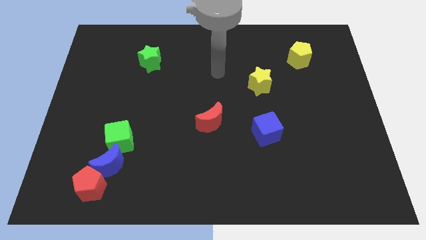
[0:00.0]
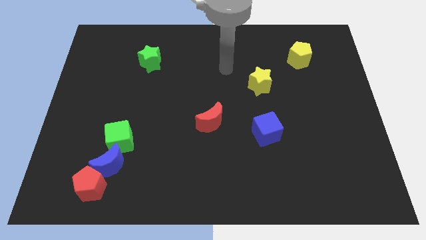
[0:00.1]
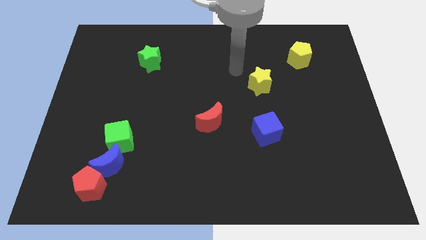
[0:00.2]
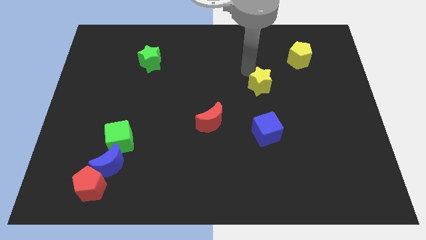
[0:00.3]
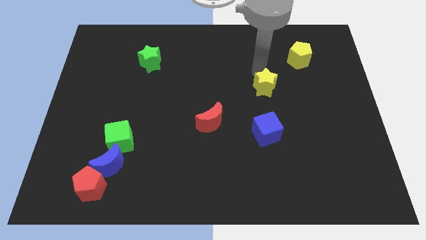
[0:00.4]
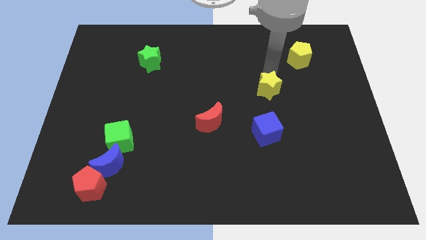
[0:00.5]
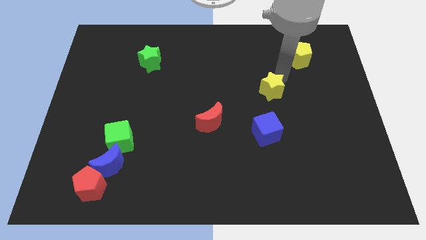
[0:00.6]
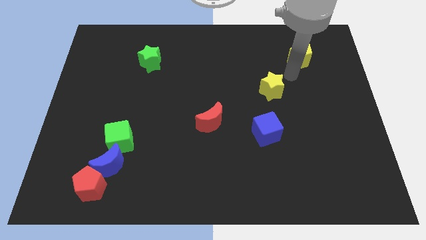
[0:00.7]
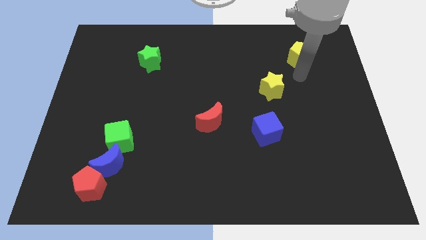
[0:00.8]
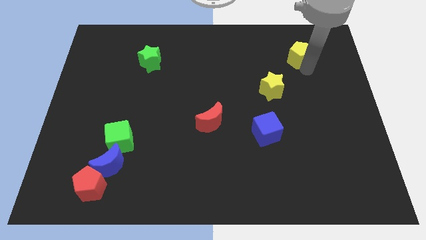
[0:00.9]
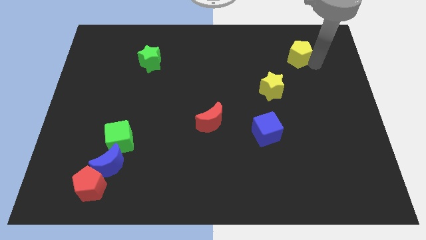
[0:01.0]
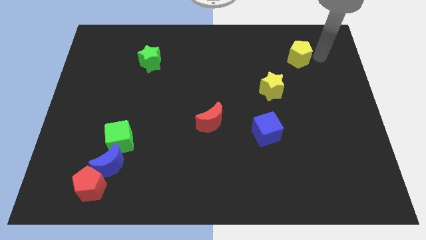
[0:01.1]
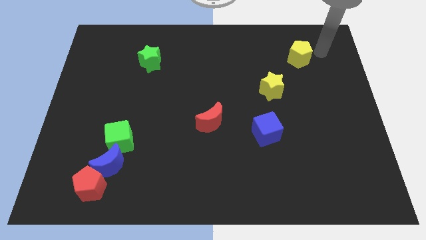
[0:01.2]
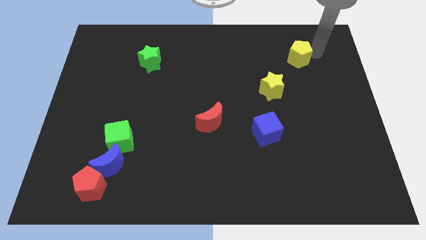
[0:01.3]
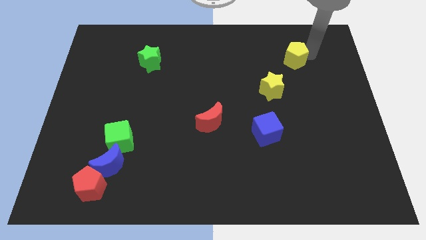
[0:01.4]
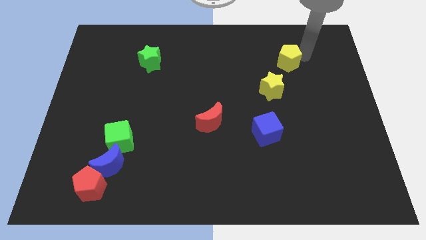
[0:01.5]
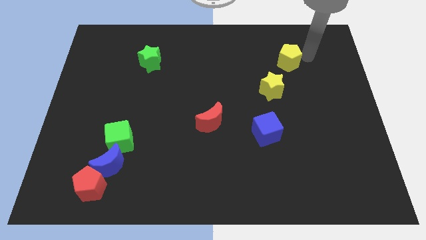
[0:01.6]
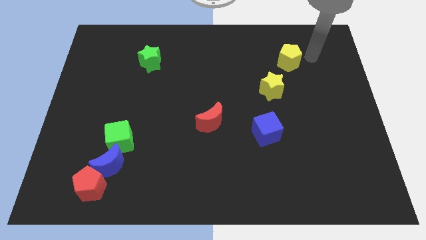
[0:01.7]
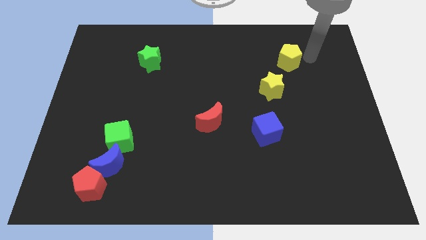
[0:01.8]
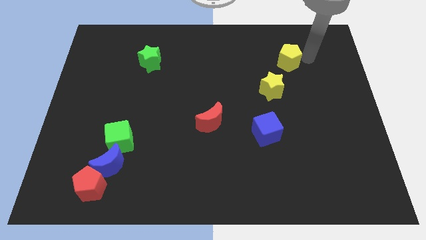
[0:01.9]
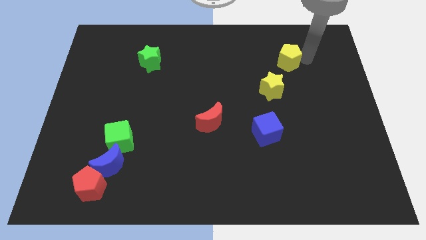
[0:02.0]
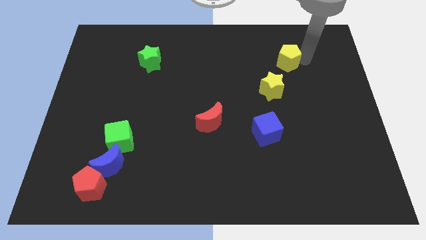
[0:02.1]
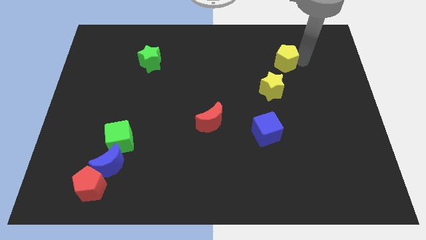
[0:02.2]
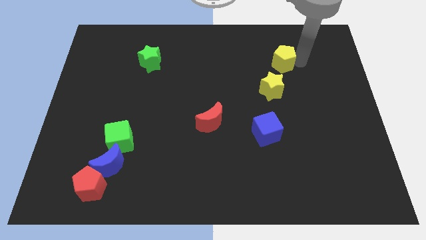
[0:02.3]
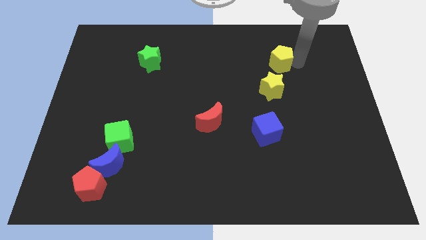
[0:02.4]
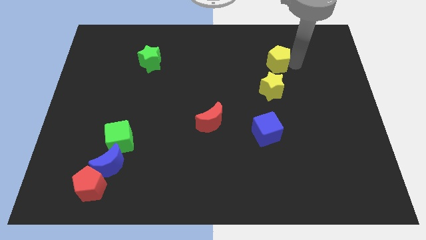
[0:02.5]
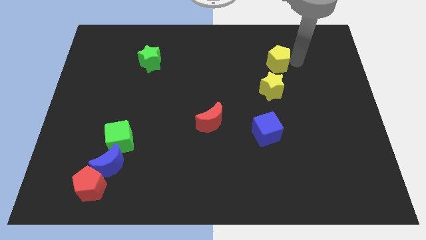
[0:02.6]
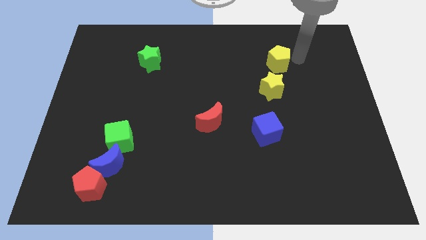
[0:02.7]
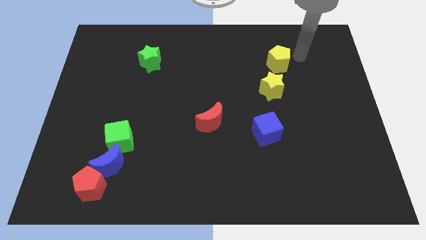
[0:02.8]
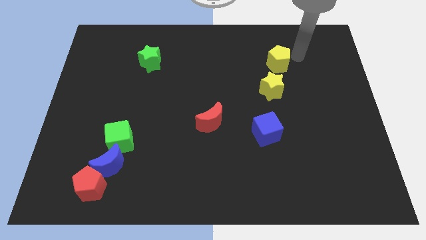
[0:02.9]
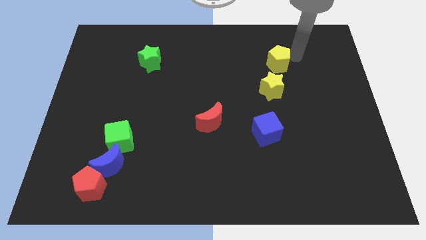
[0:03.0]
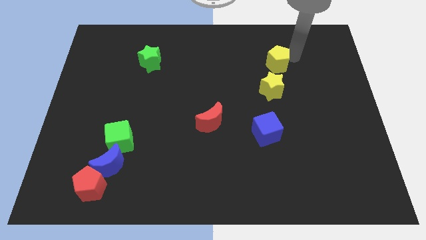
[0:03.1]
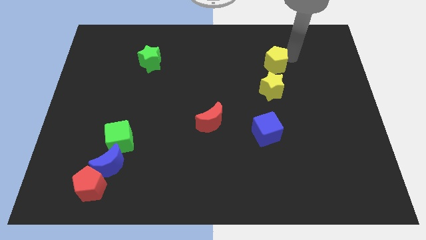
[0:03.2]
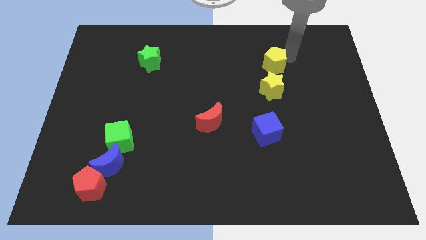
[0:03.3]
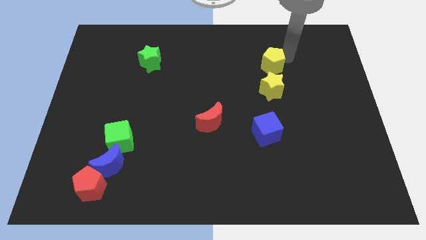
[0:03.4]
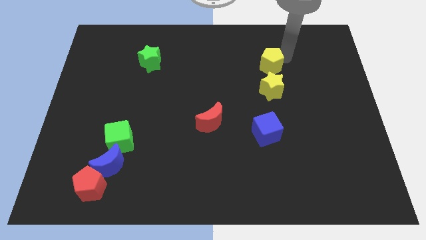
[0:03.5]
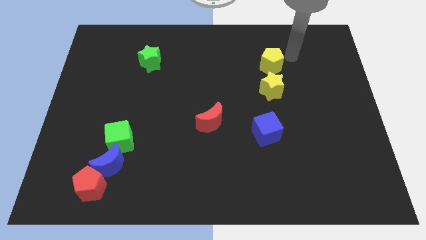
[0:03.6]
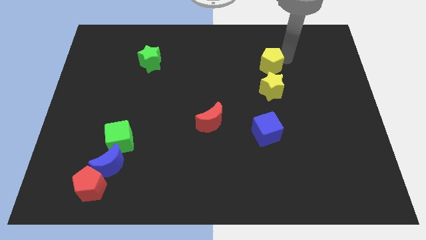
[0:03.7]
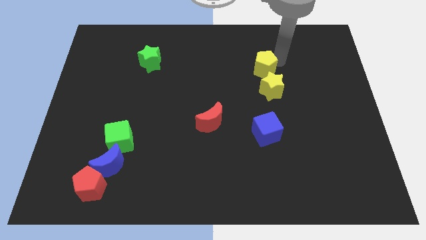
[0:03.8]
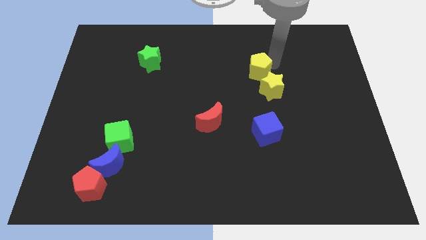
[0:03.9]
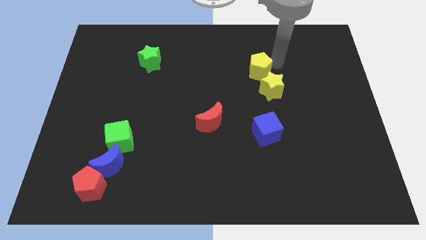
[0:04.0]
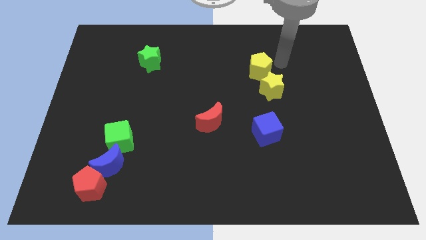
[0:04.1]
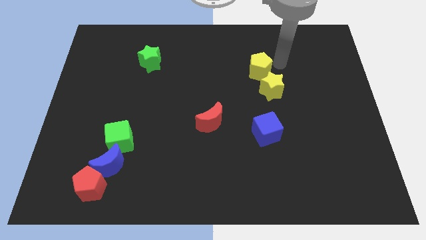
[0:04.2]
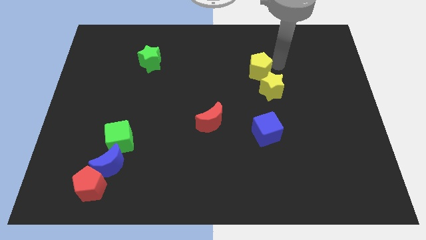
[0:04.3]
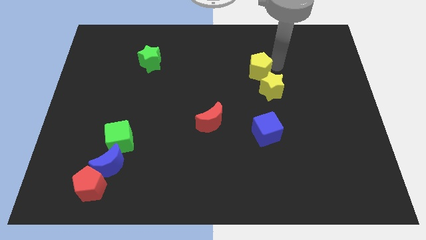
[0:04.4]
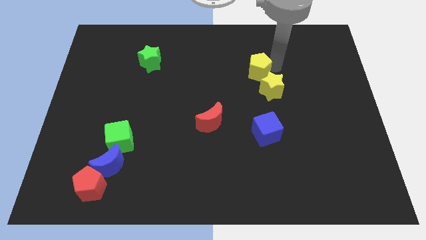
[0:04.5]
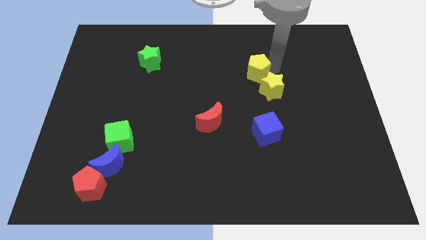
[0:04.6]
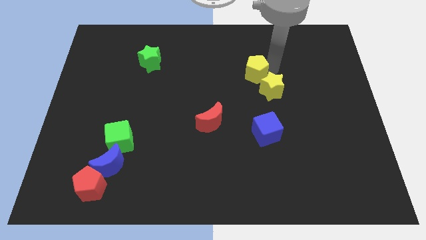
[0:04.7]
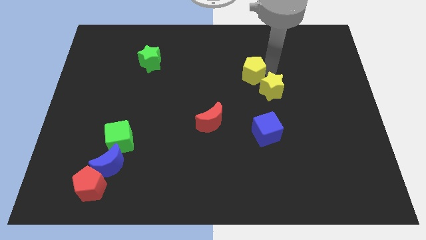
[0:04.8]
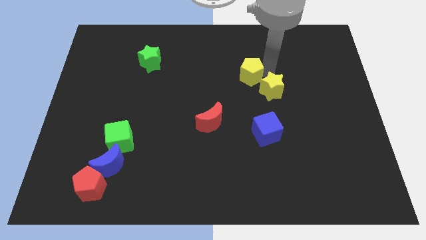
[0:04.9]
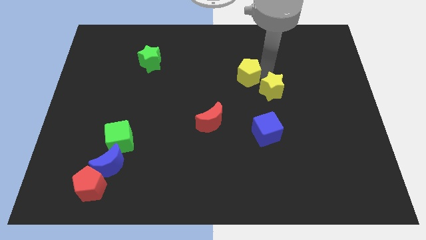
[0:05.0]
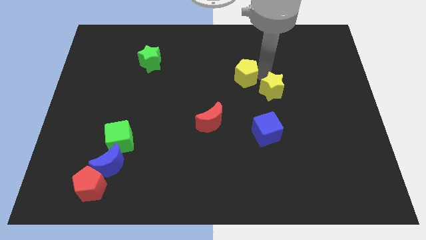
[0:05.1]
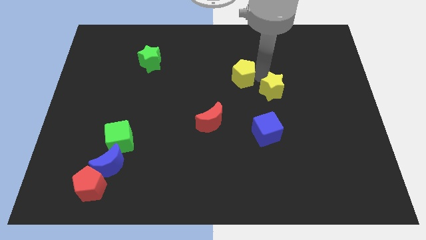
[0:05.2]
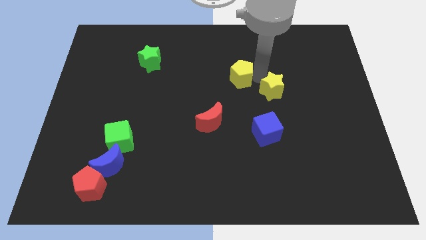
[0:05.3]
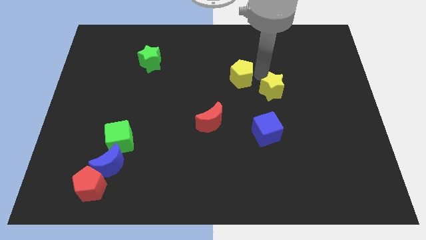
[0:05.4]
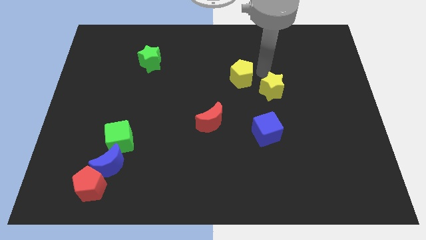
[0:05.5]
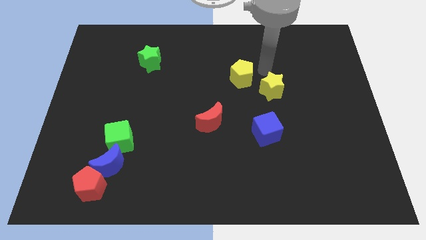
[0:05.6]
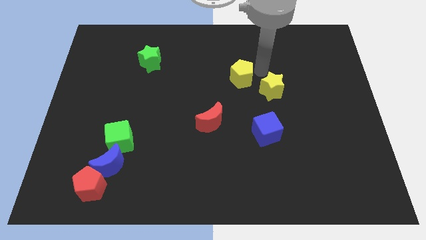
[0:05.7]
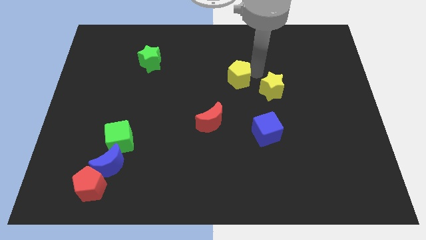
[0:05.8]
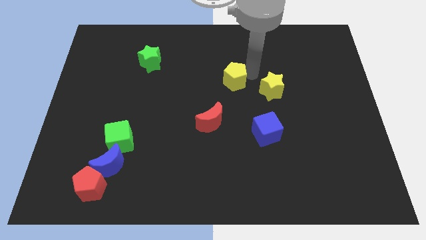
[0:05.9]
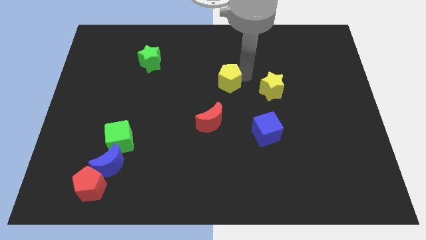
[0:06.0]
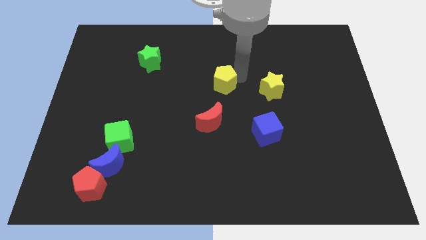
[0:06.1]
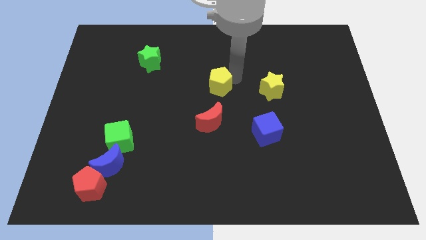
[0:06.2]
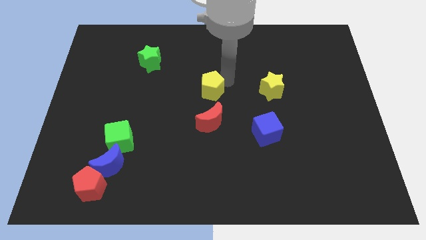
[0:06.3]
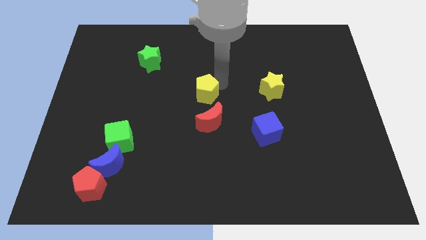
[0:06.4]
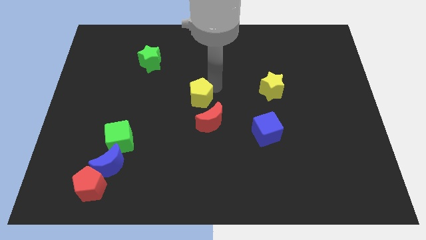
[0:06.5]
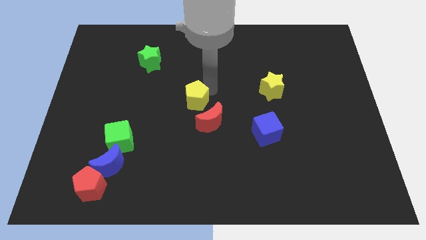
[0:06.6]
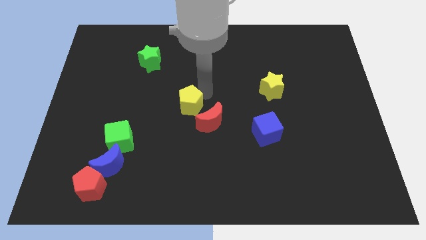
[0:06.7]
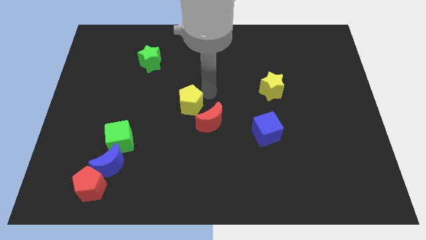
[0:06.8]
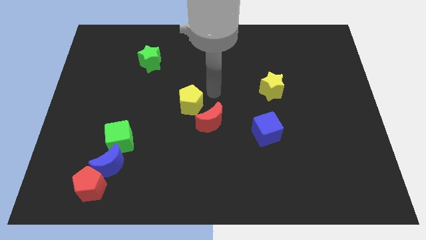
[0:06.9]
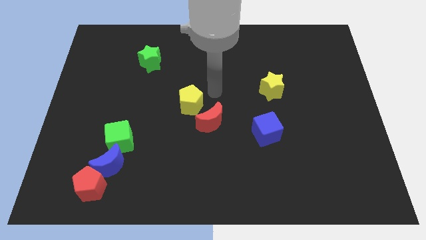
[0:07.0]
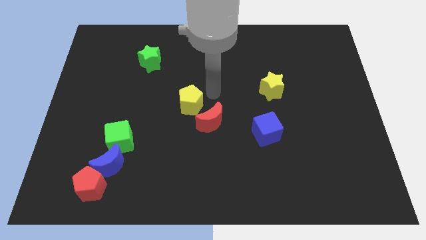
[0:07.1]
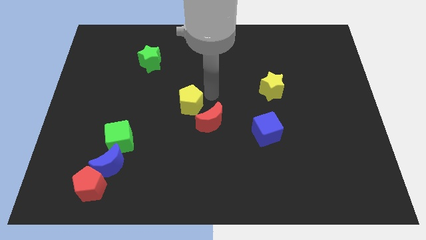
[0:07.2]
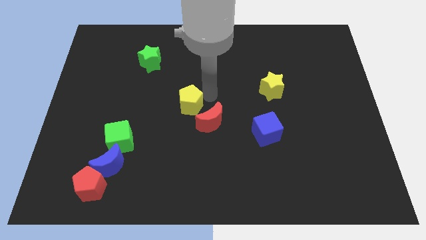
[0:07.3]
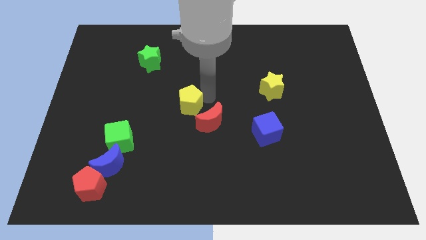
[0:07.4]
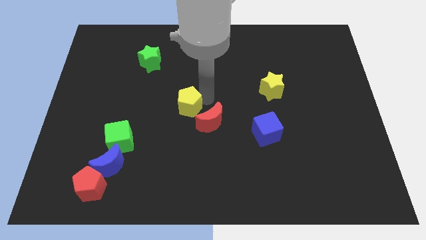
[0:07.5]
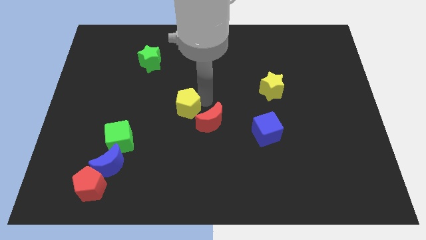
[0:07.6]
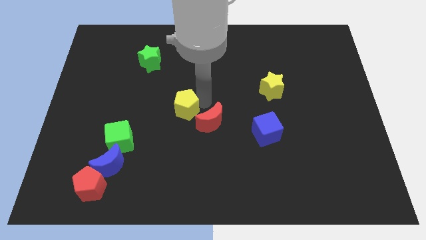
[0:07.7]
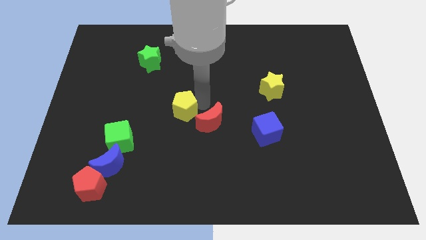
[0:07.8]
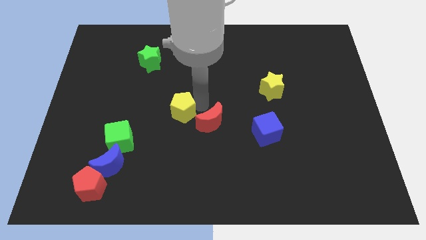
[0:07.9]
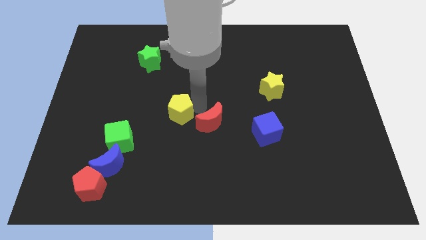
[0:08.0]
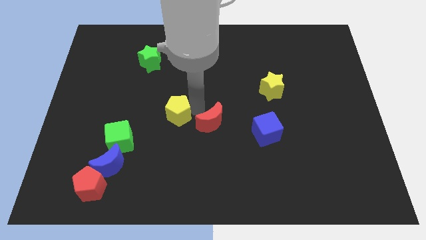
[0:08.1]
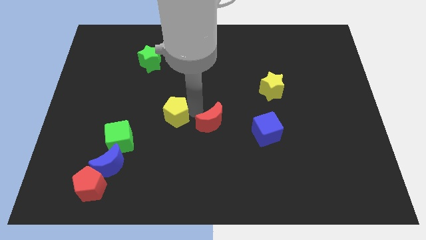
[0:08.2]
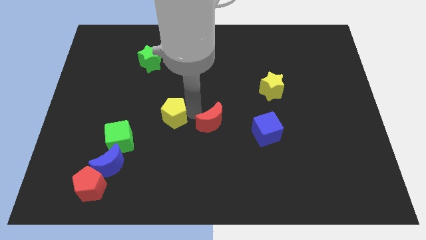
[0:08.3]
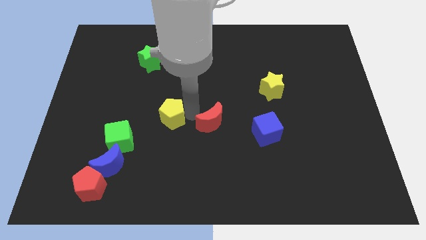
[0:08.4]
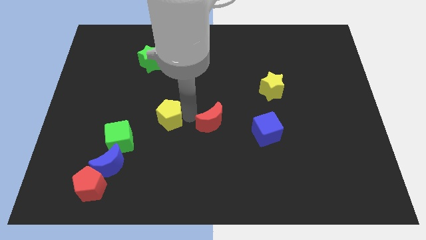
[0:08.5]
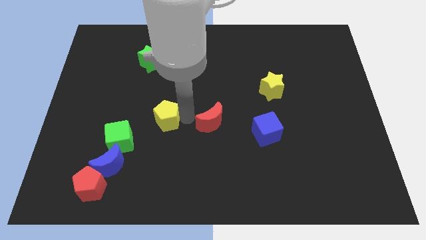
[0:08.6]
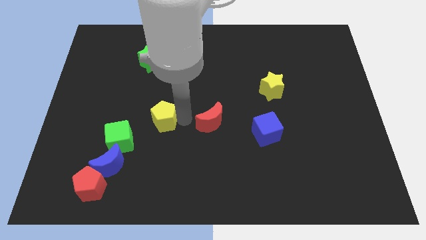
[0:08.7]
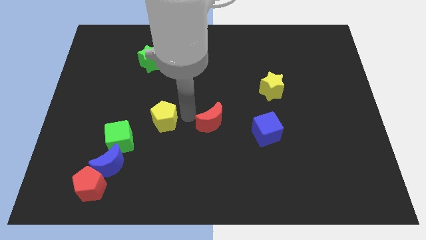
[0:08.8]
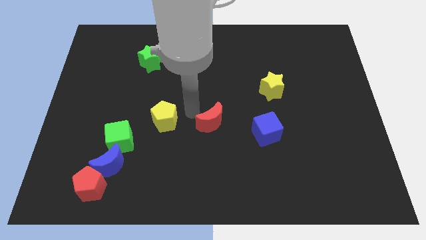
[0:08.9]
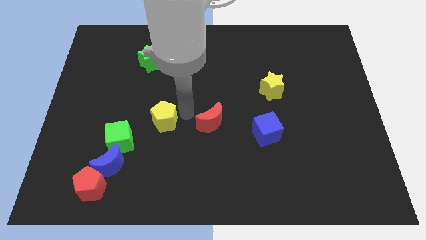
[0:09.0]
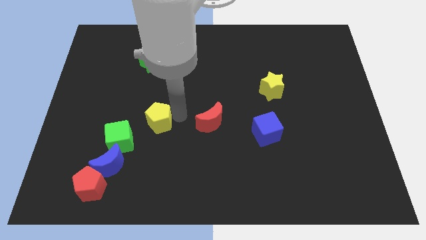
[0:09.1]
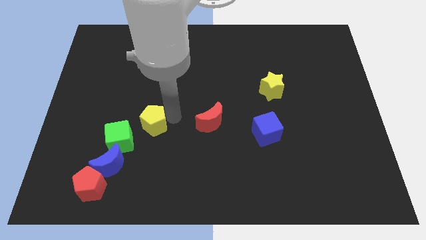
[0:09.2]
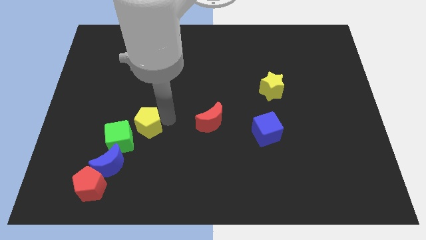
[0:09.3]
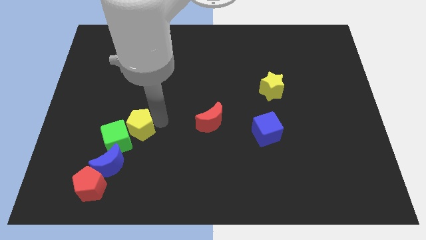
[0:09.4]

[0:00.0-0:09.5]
slide the yellow pentagon close to the green cube
